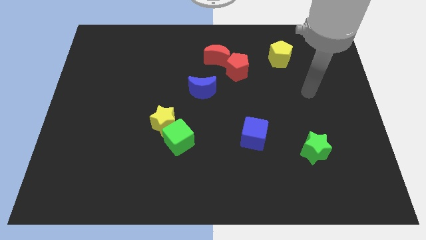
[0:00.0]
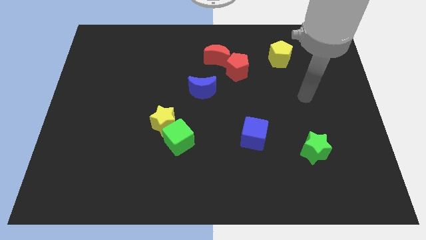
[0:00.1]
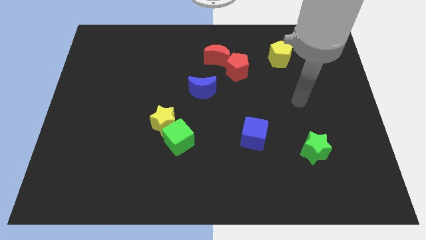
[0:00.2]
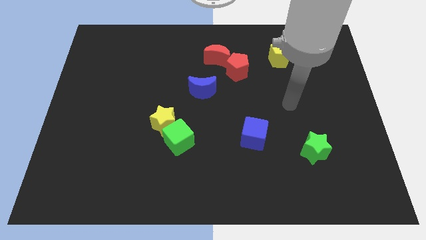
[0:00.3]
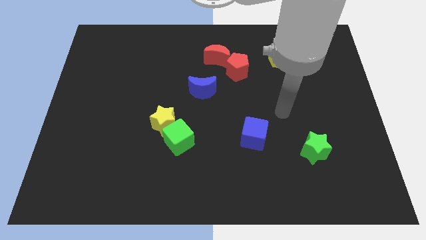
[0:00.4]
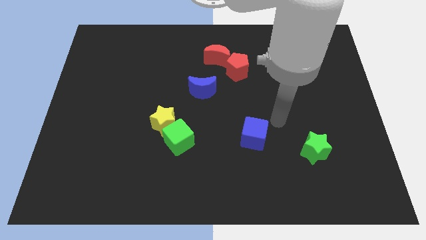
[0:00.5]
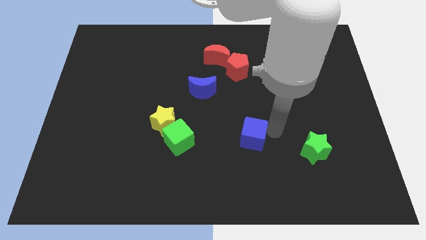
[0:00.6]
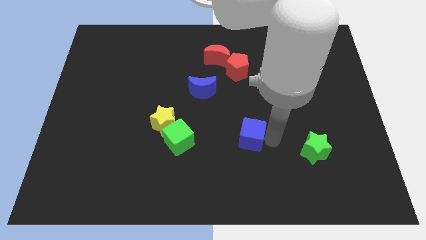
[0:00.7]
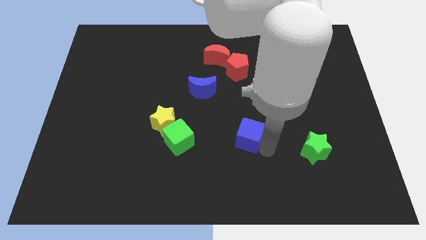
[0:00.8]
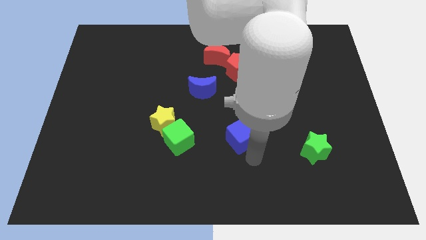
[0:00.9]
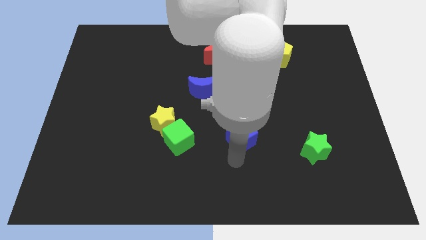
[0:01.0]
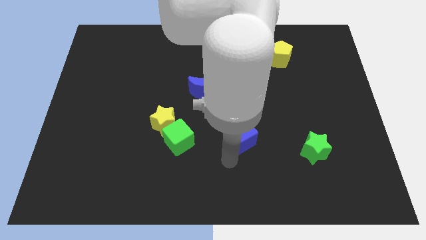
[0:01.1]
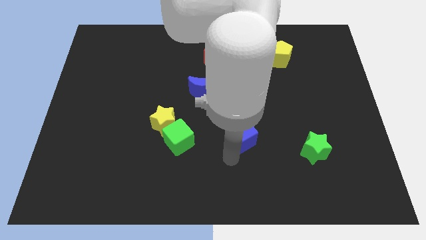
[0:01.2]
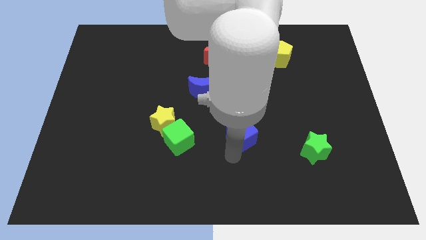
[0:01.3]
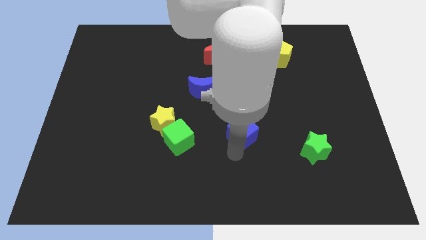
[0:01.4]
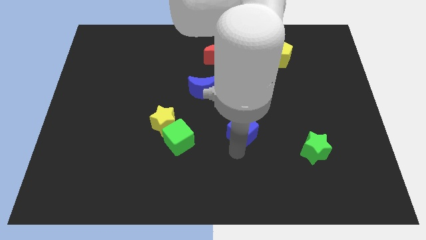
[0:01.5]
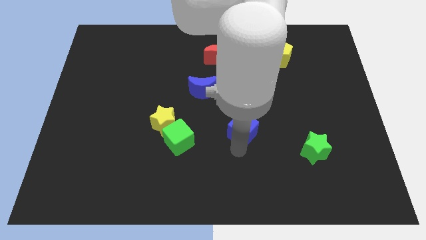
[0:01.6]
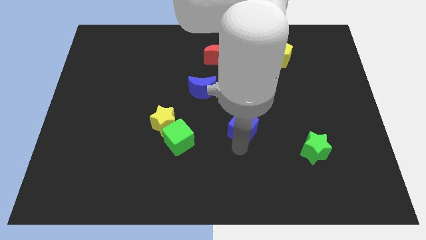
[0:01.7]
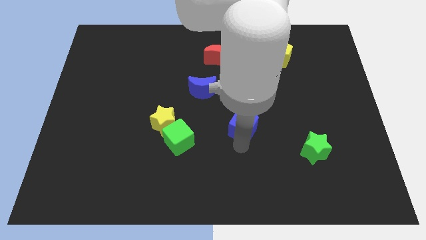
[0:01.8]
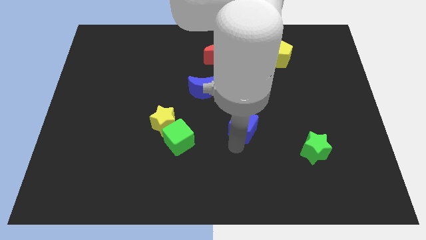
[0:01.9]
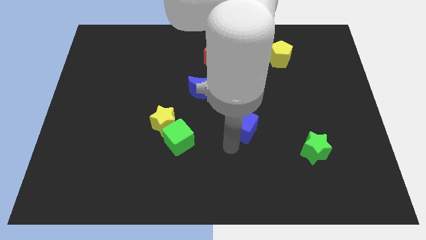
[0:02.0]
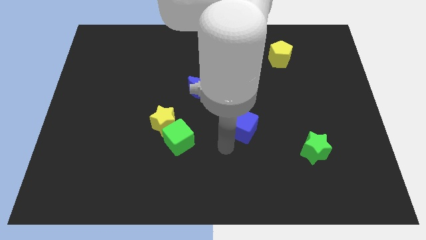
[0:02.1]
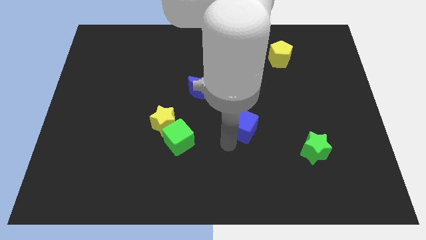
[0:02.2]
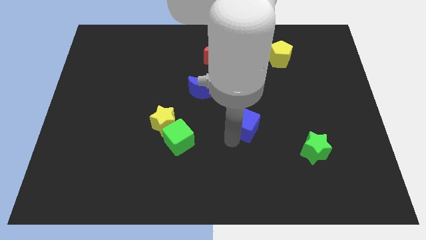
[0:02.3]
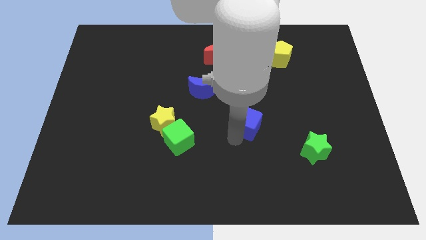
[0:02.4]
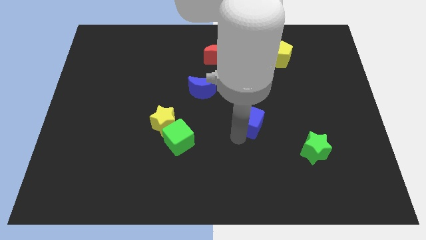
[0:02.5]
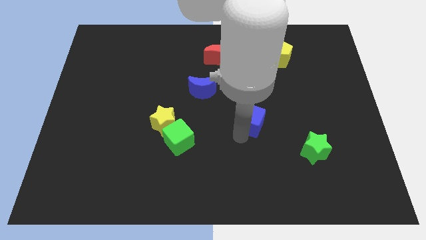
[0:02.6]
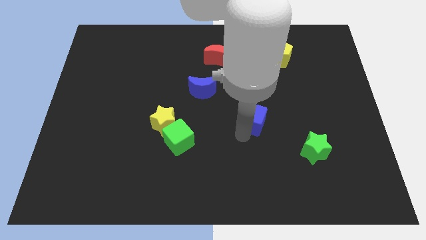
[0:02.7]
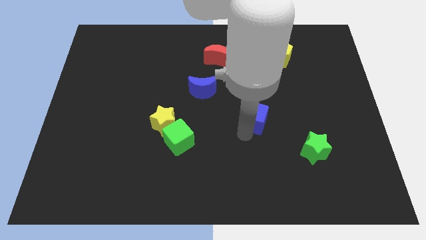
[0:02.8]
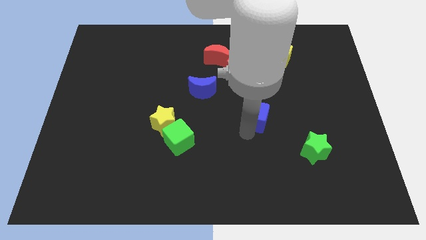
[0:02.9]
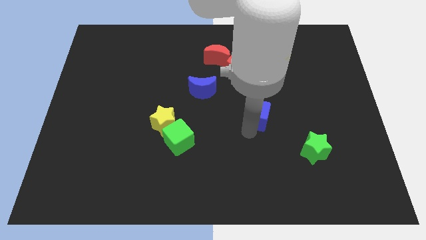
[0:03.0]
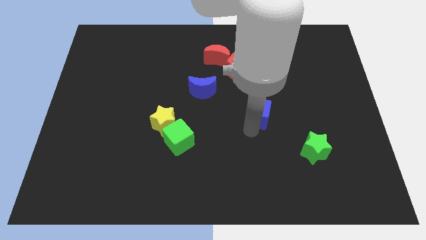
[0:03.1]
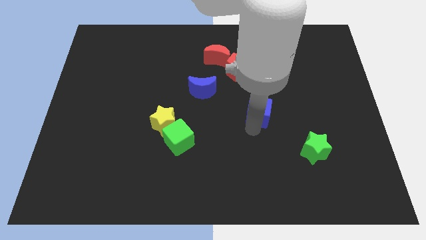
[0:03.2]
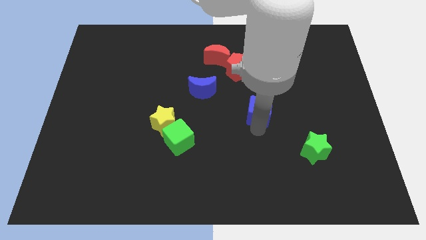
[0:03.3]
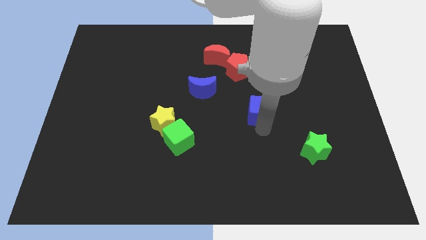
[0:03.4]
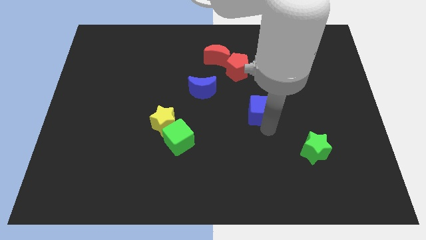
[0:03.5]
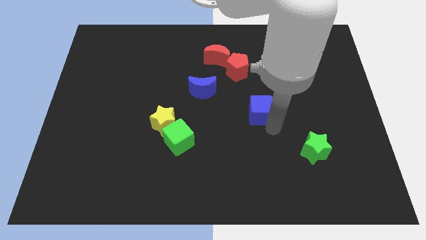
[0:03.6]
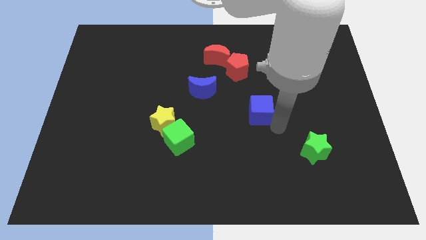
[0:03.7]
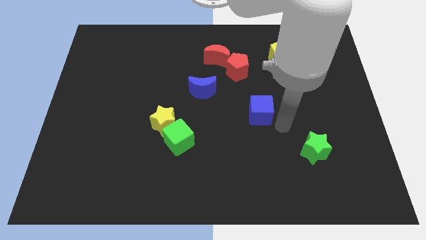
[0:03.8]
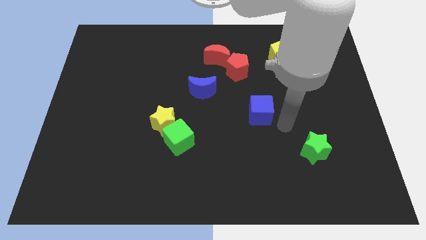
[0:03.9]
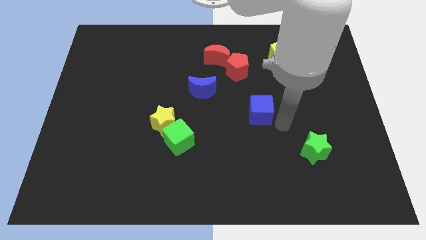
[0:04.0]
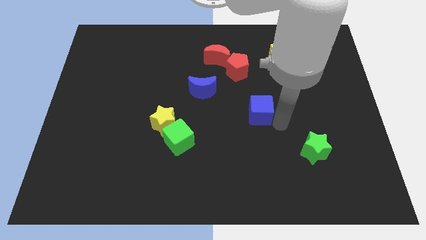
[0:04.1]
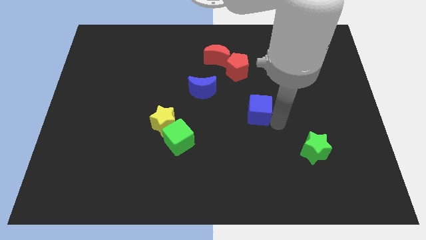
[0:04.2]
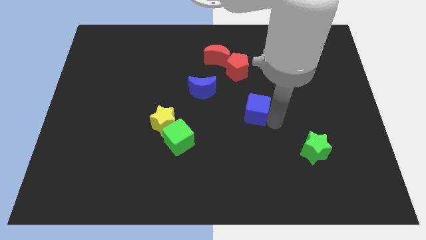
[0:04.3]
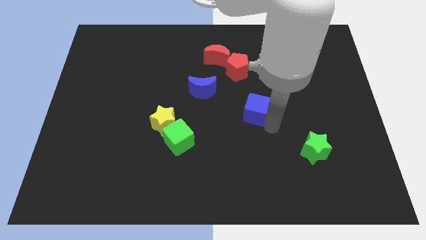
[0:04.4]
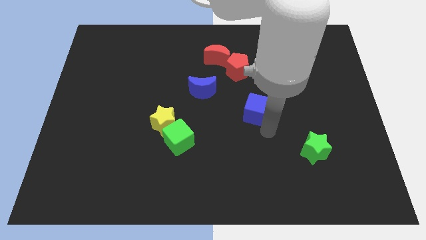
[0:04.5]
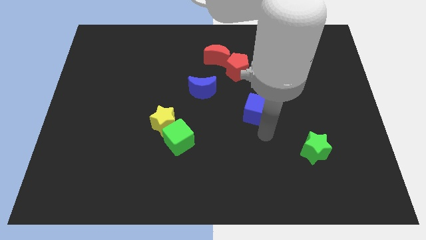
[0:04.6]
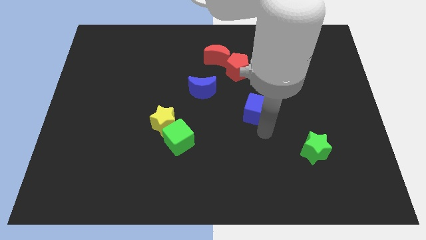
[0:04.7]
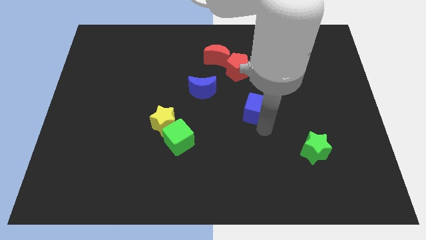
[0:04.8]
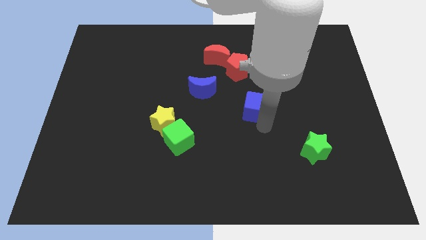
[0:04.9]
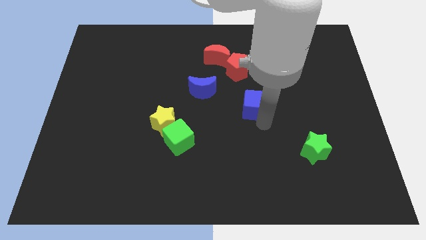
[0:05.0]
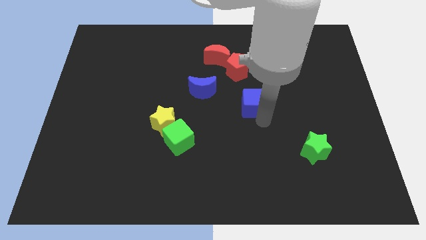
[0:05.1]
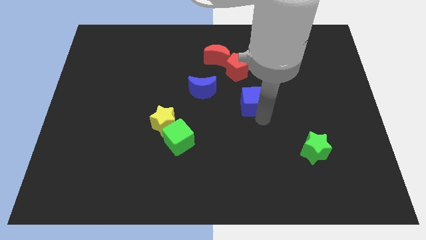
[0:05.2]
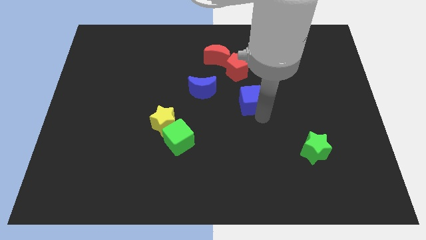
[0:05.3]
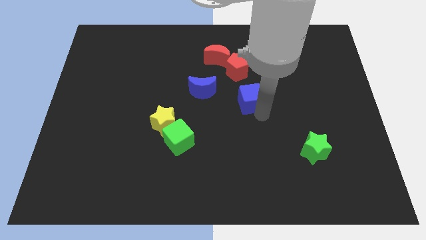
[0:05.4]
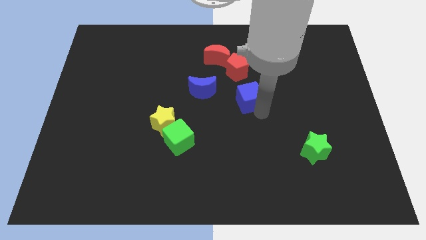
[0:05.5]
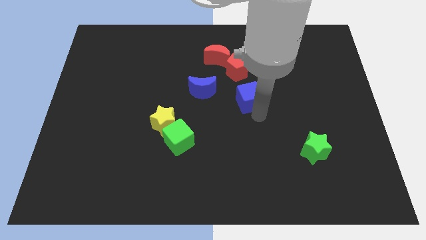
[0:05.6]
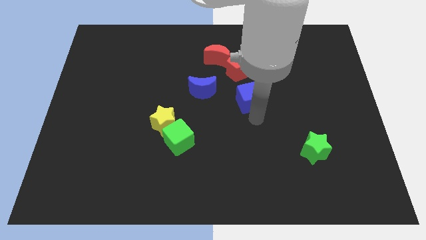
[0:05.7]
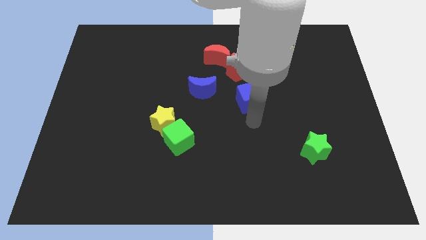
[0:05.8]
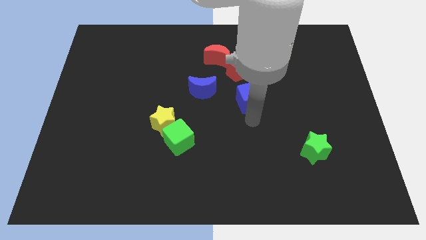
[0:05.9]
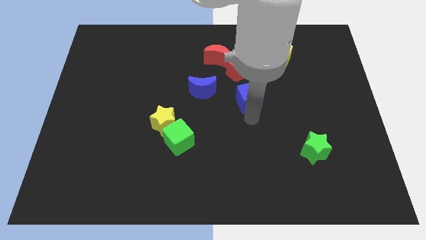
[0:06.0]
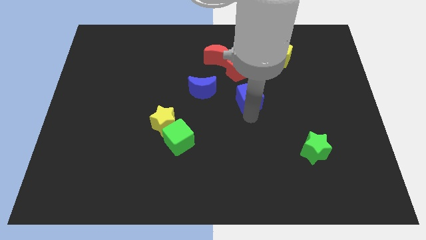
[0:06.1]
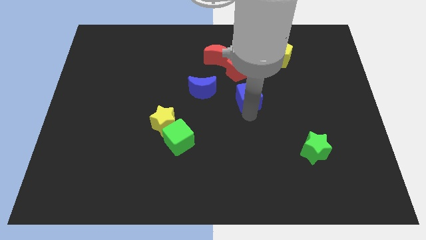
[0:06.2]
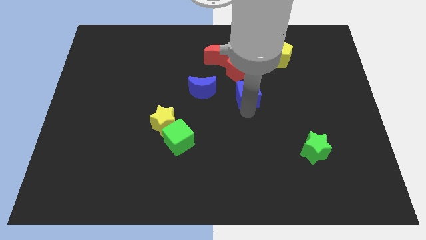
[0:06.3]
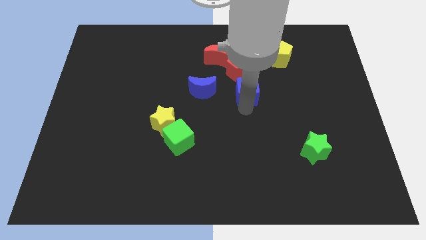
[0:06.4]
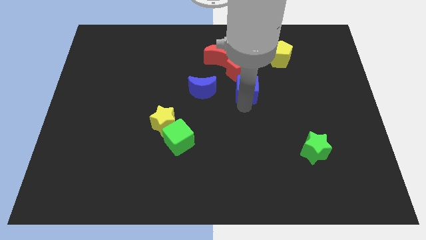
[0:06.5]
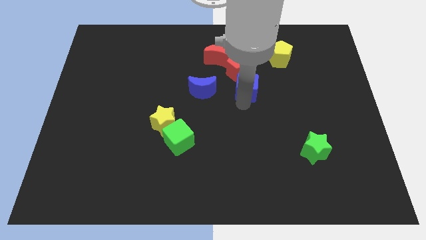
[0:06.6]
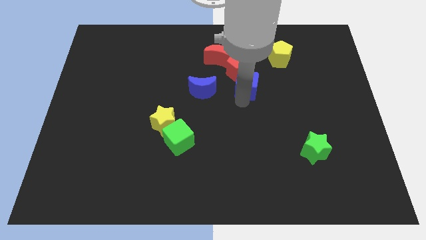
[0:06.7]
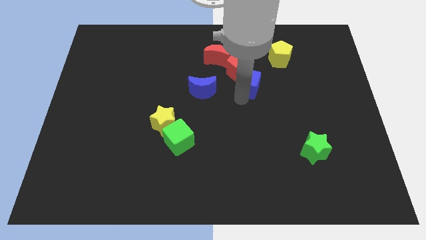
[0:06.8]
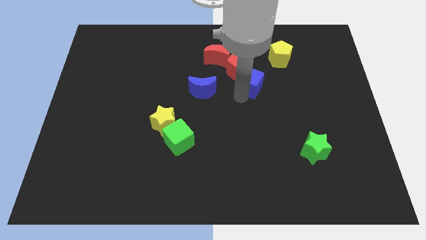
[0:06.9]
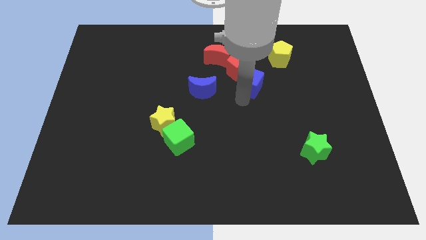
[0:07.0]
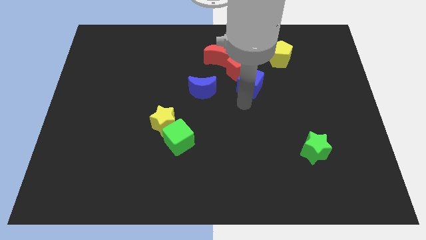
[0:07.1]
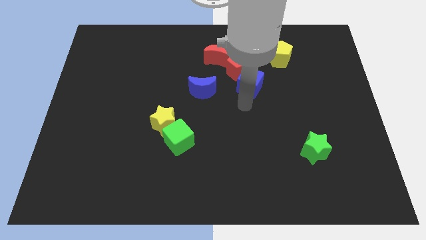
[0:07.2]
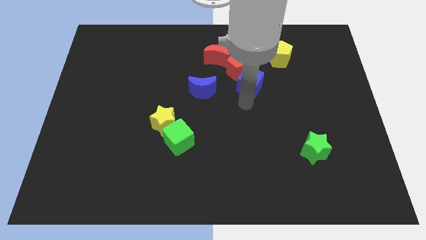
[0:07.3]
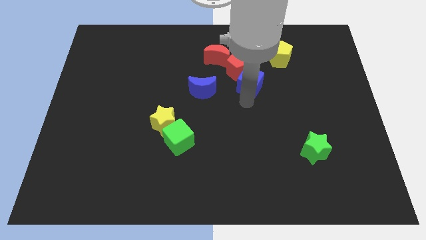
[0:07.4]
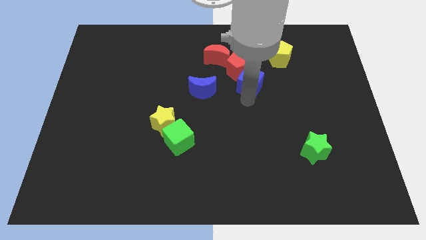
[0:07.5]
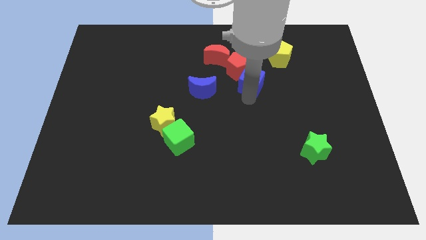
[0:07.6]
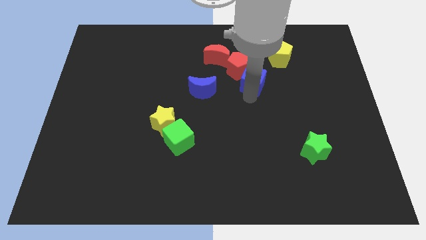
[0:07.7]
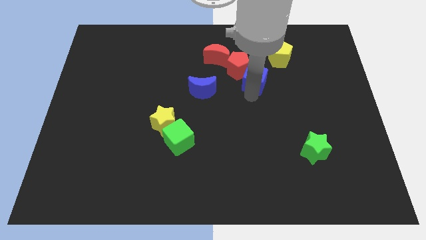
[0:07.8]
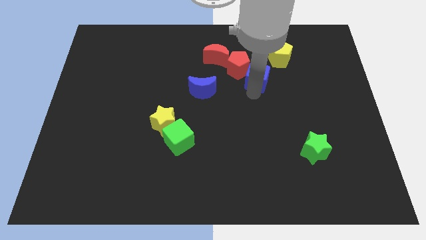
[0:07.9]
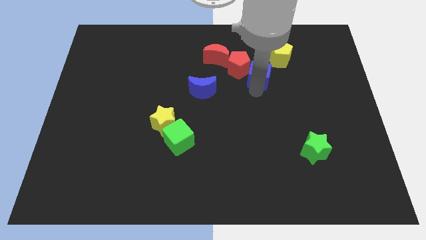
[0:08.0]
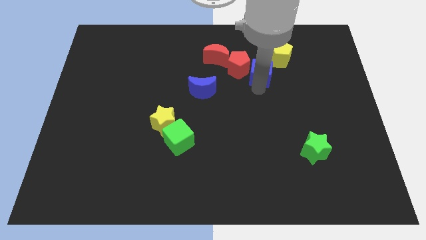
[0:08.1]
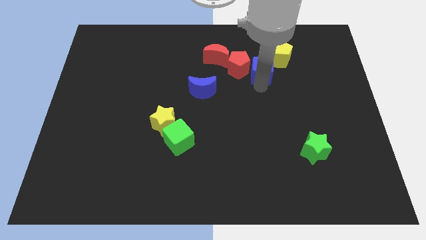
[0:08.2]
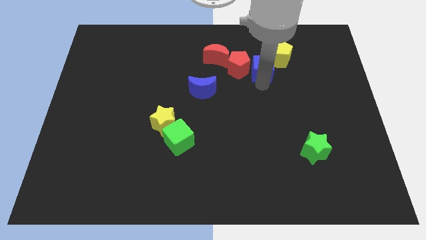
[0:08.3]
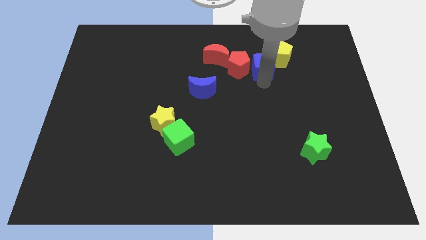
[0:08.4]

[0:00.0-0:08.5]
push the blue cube diagonally up and to the right of the red pentagon
